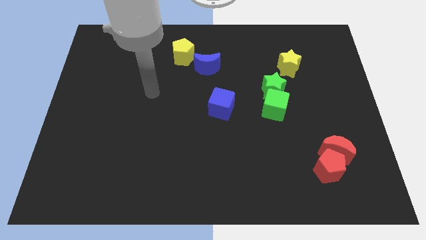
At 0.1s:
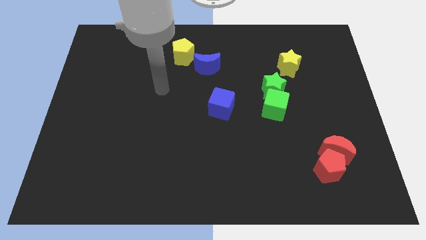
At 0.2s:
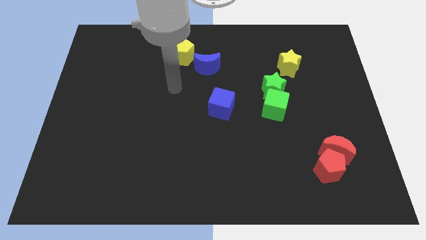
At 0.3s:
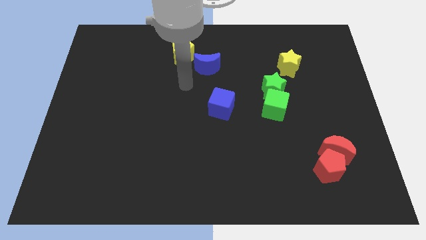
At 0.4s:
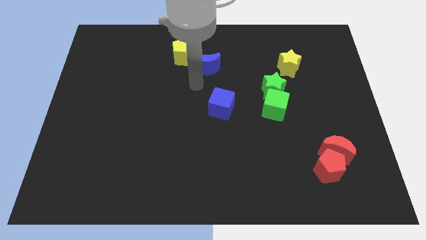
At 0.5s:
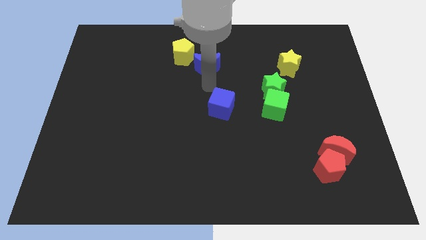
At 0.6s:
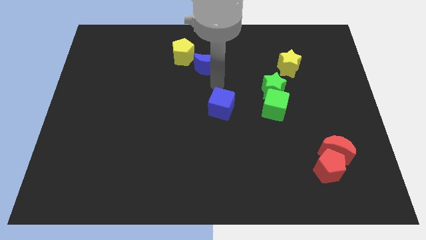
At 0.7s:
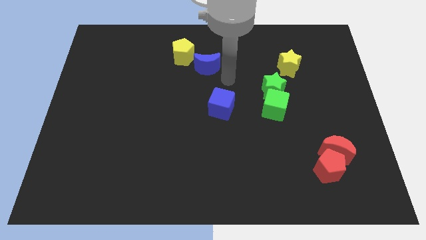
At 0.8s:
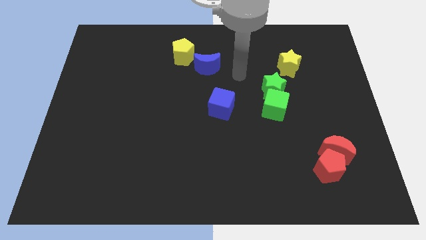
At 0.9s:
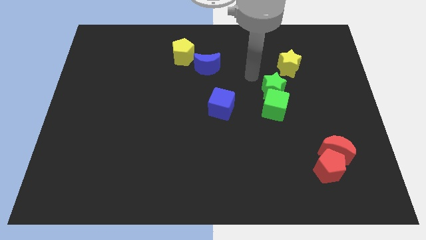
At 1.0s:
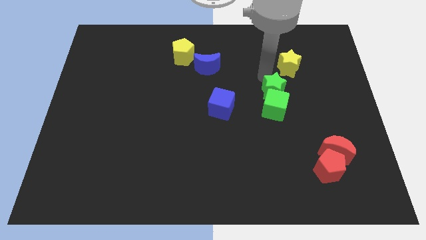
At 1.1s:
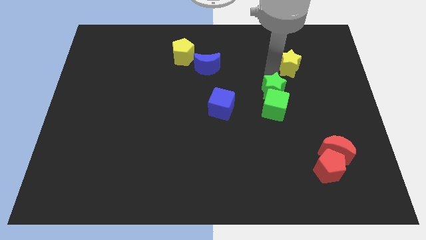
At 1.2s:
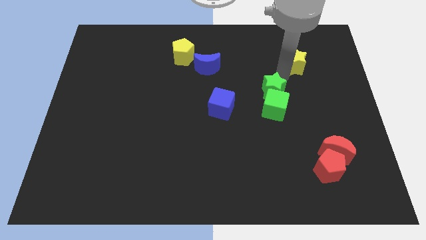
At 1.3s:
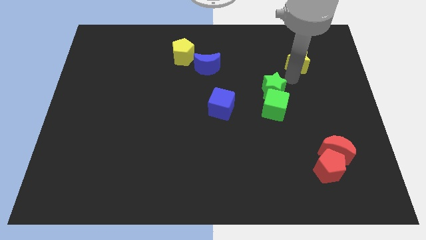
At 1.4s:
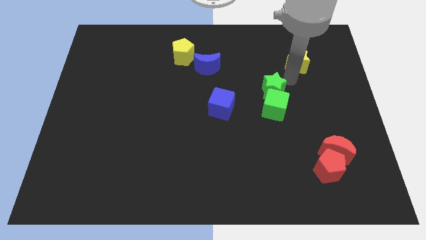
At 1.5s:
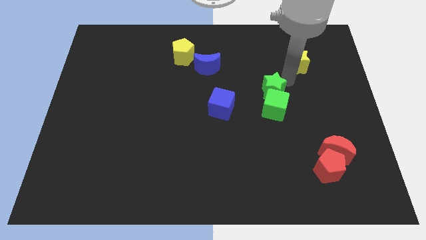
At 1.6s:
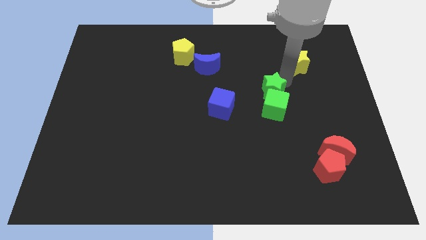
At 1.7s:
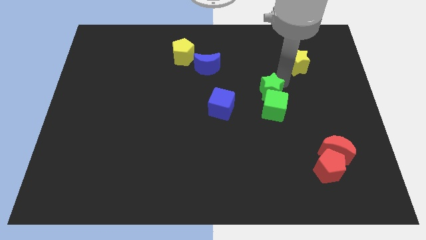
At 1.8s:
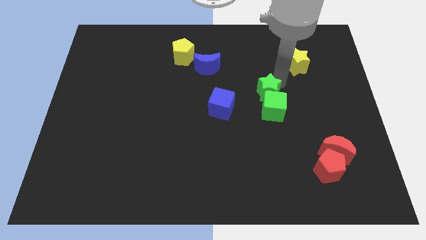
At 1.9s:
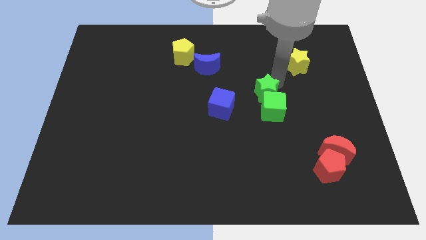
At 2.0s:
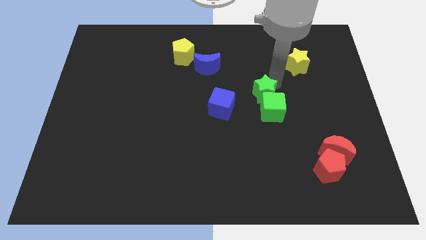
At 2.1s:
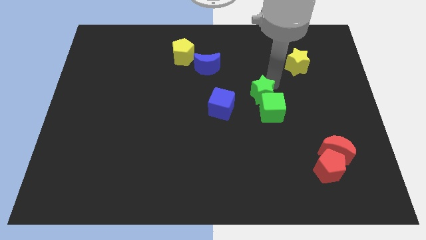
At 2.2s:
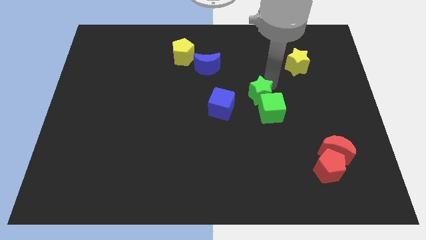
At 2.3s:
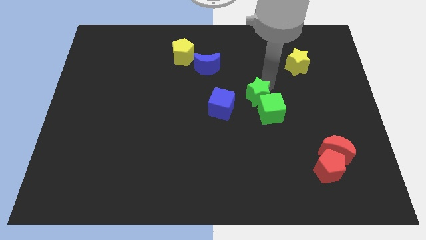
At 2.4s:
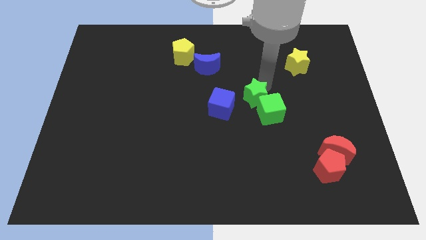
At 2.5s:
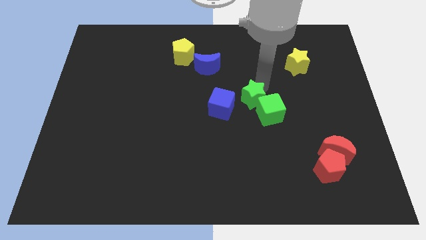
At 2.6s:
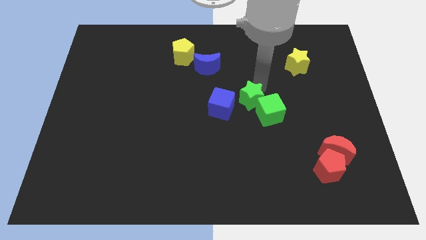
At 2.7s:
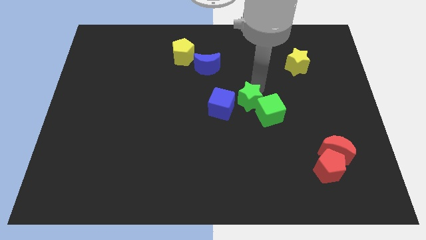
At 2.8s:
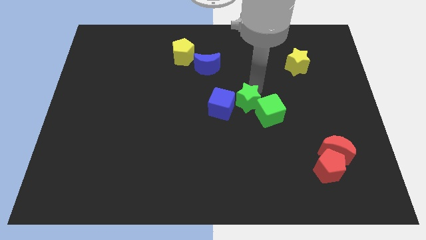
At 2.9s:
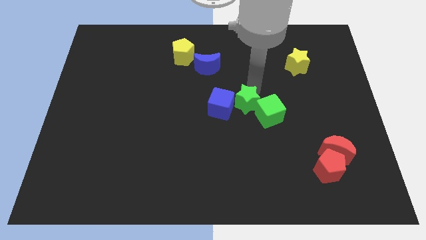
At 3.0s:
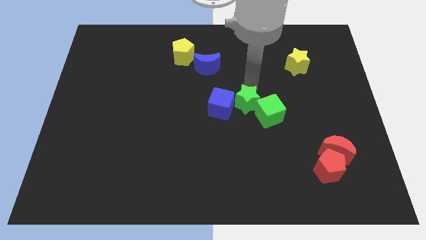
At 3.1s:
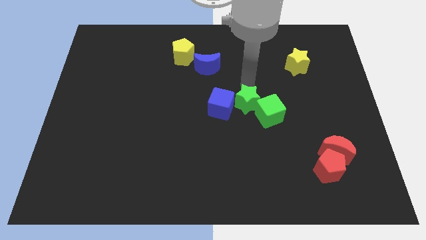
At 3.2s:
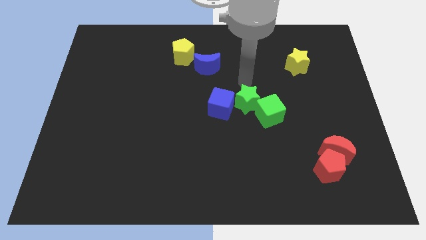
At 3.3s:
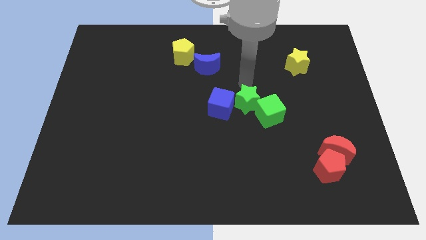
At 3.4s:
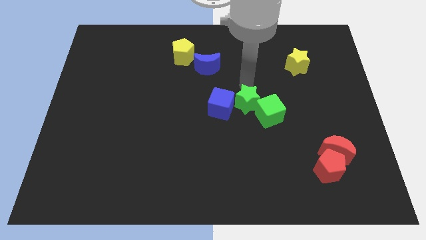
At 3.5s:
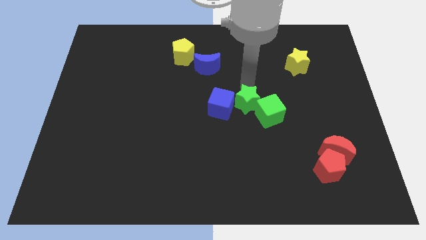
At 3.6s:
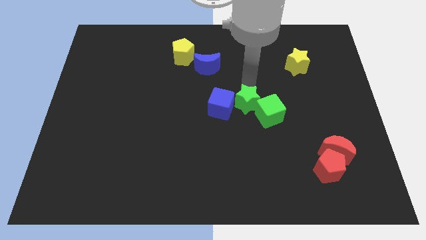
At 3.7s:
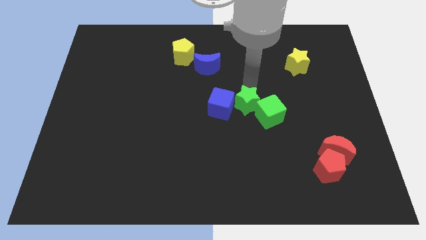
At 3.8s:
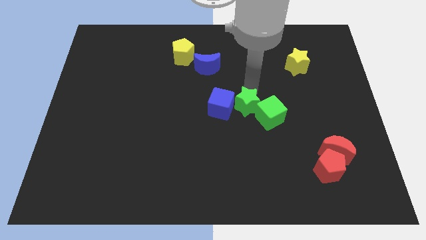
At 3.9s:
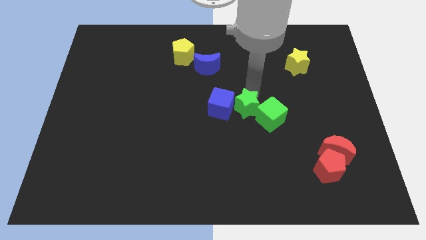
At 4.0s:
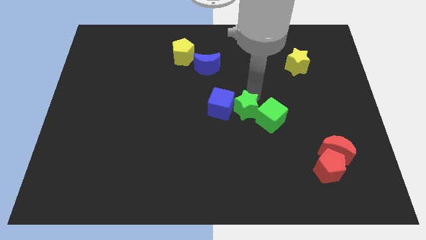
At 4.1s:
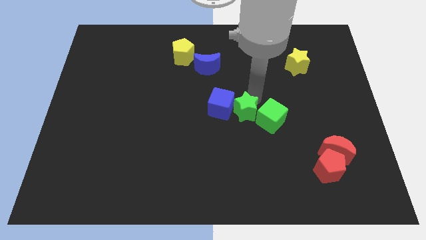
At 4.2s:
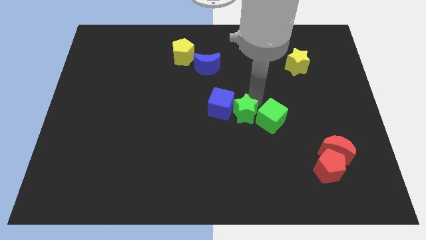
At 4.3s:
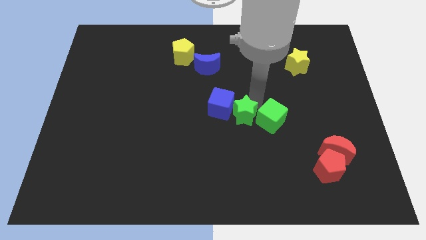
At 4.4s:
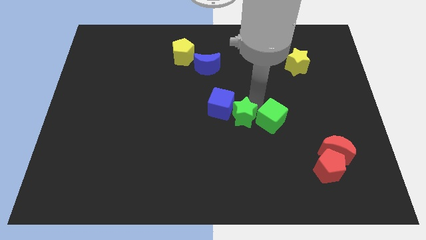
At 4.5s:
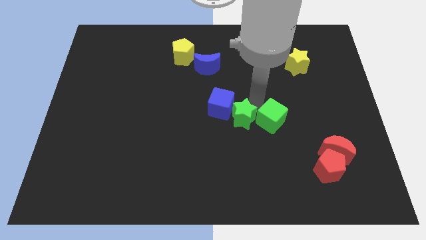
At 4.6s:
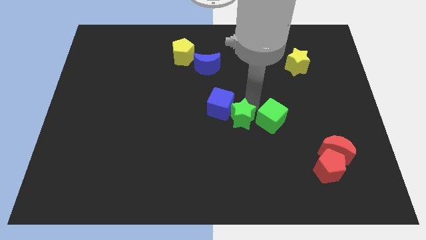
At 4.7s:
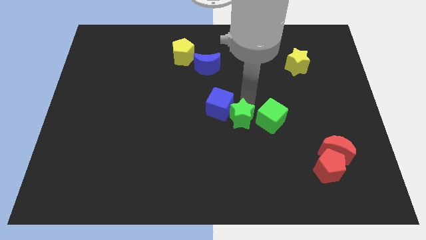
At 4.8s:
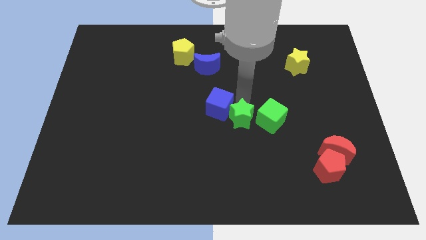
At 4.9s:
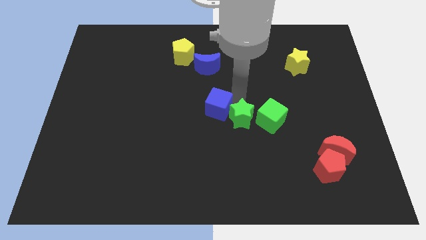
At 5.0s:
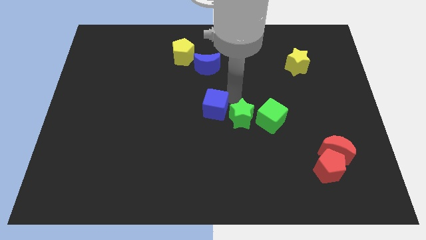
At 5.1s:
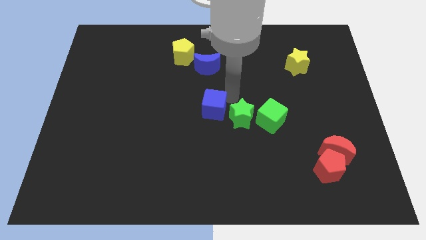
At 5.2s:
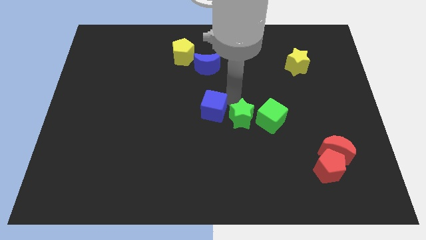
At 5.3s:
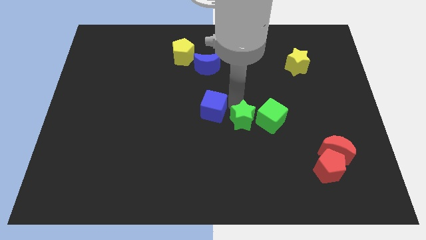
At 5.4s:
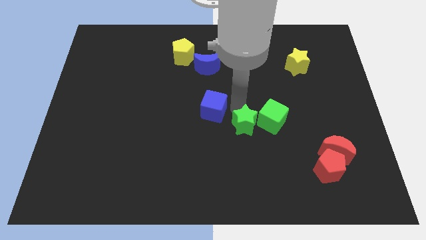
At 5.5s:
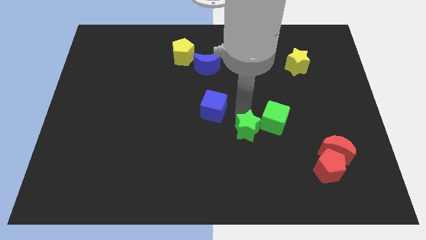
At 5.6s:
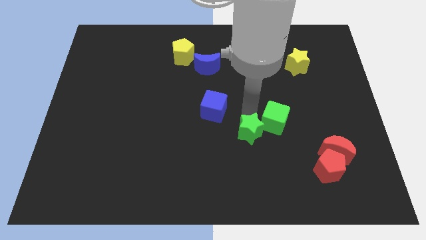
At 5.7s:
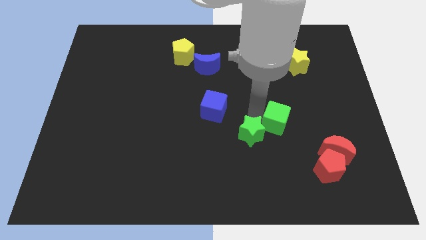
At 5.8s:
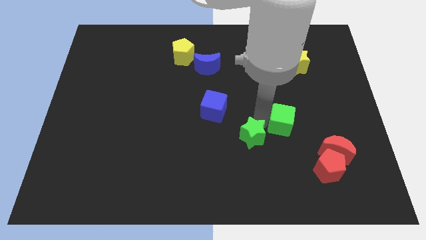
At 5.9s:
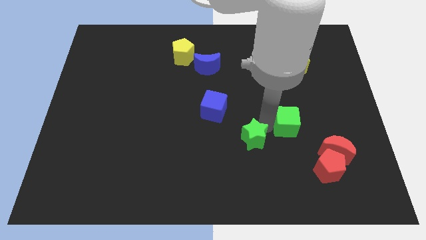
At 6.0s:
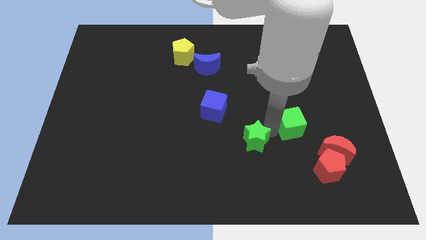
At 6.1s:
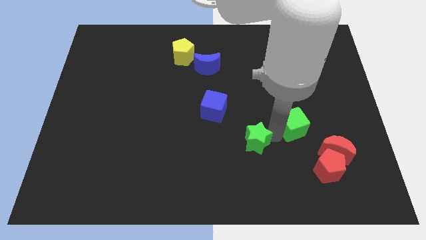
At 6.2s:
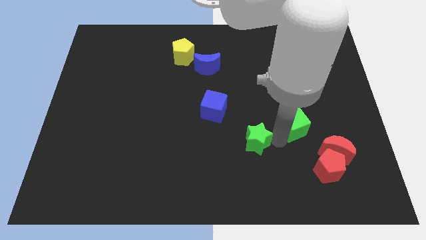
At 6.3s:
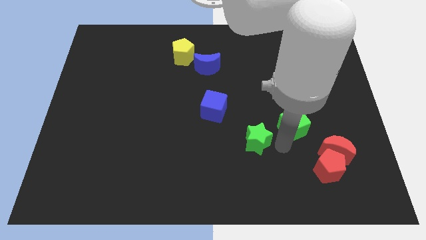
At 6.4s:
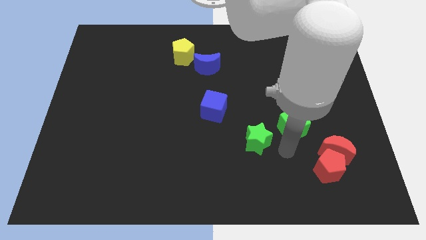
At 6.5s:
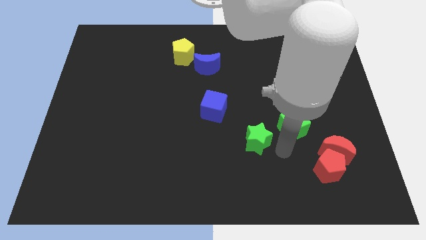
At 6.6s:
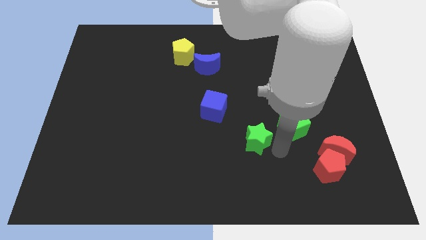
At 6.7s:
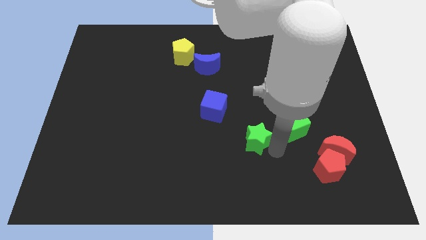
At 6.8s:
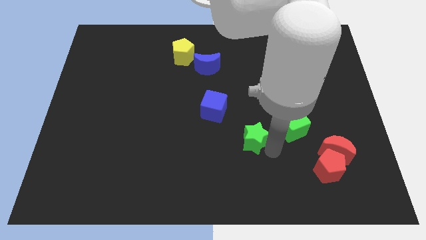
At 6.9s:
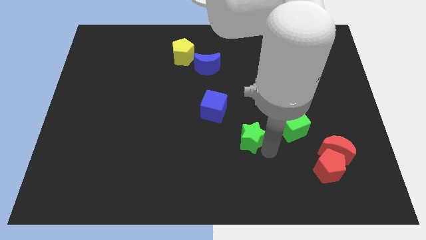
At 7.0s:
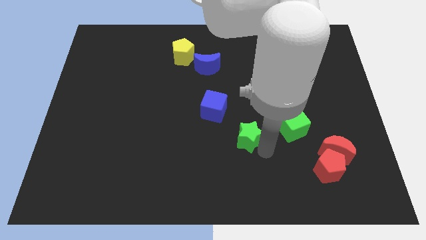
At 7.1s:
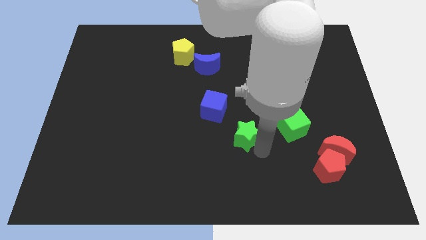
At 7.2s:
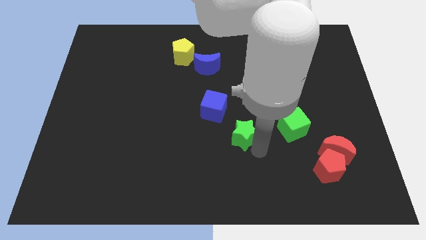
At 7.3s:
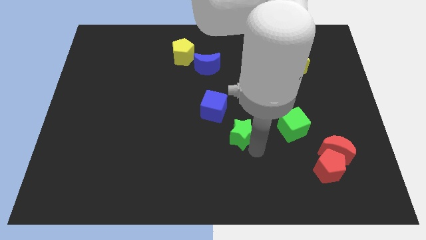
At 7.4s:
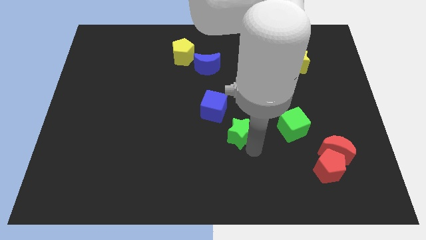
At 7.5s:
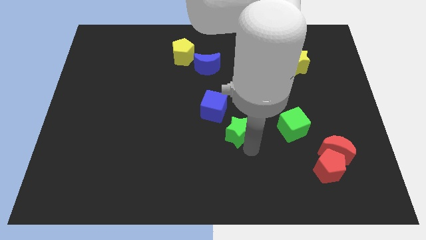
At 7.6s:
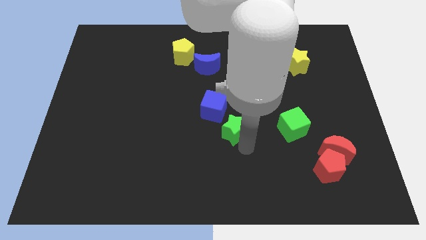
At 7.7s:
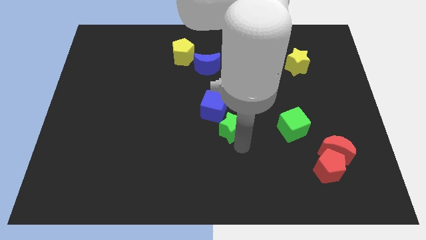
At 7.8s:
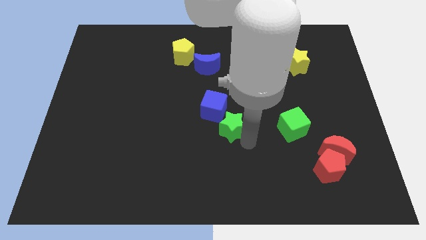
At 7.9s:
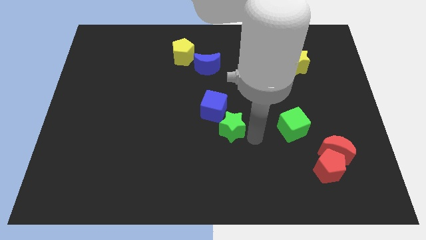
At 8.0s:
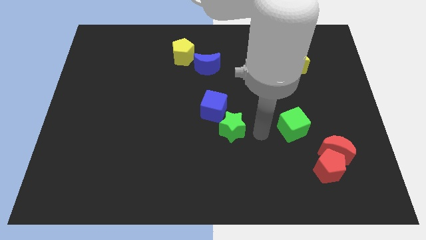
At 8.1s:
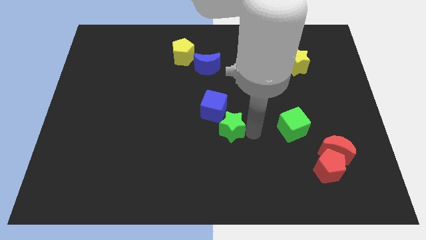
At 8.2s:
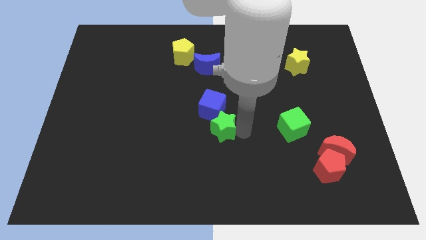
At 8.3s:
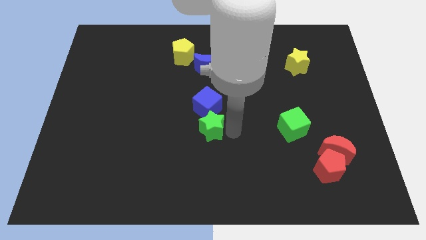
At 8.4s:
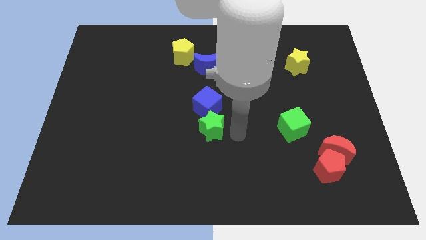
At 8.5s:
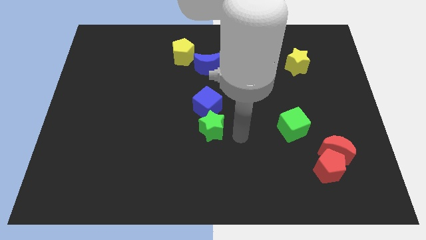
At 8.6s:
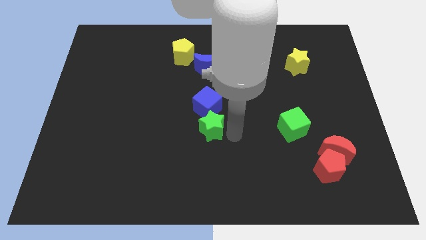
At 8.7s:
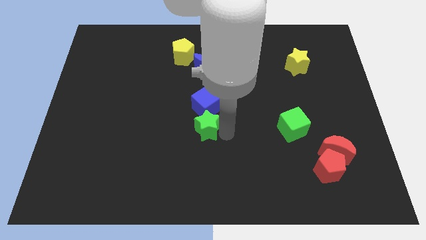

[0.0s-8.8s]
put the green star to the bottom left of the blue cube
